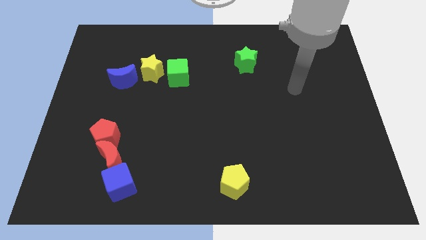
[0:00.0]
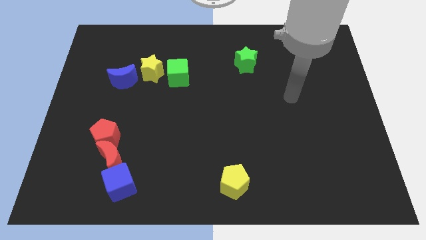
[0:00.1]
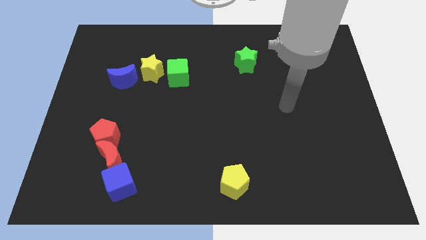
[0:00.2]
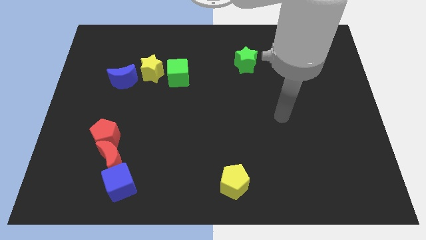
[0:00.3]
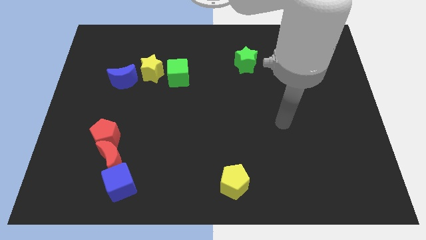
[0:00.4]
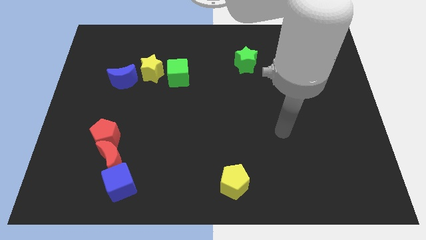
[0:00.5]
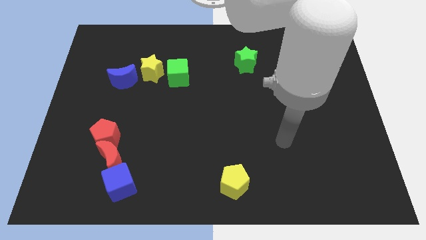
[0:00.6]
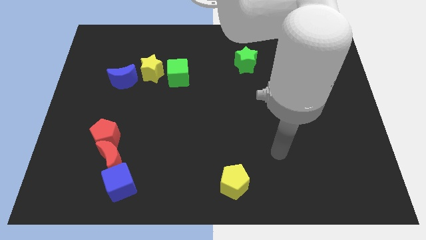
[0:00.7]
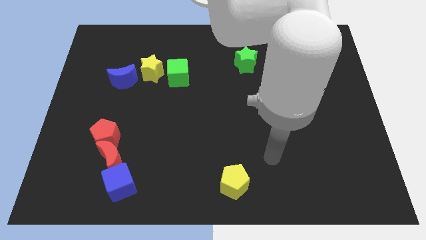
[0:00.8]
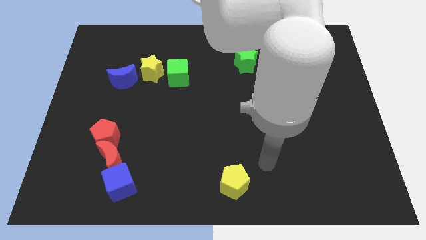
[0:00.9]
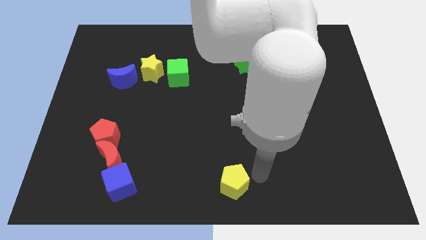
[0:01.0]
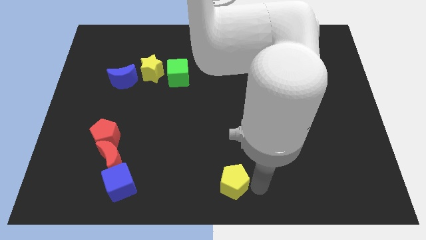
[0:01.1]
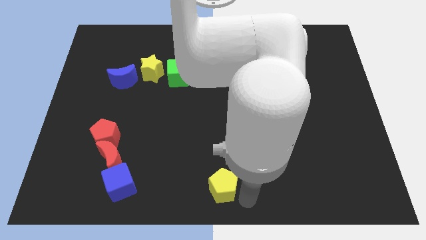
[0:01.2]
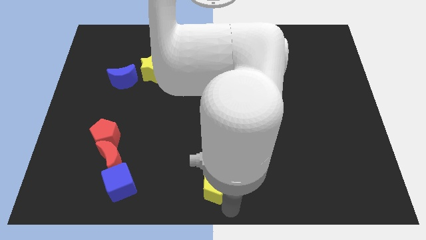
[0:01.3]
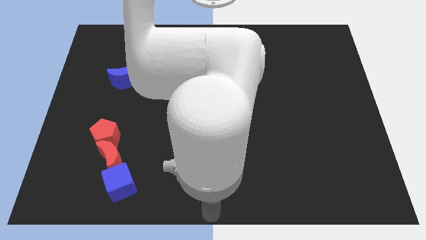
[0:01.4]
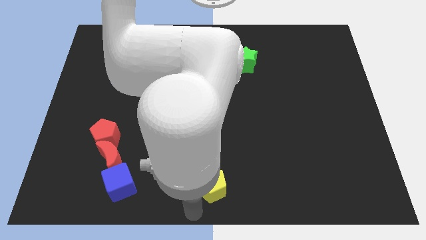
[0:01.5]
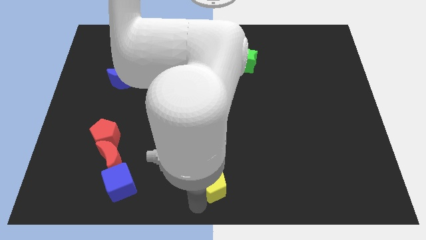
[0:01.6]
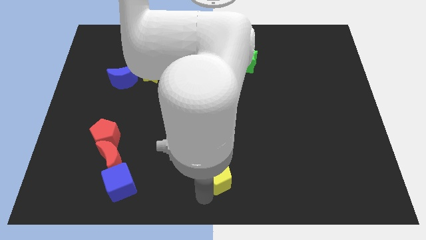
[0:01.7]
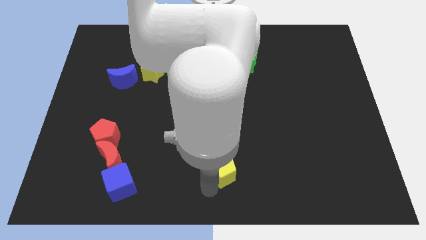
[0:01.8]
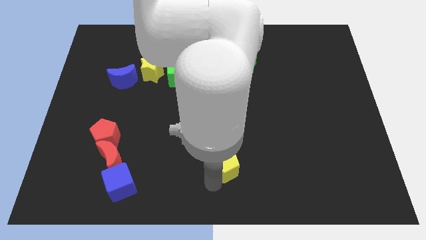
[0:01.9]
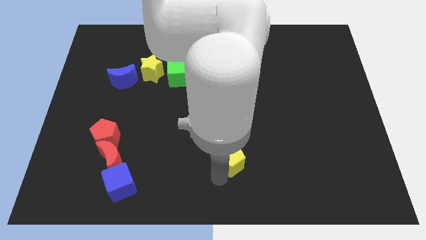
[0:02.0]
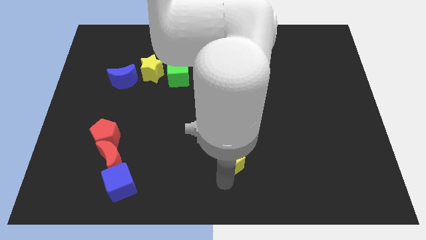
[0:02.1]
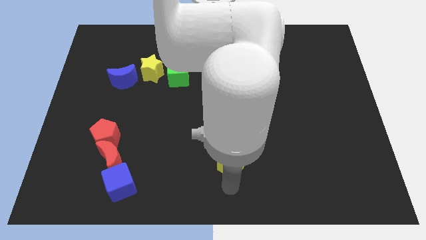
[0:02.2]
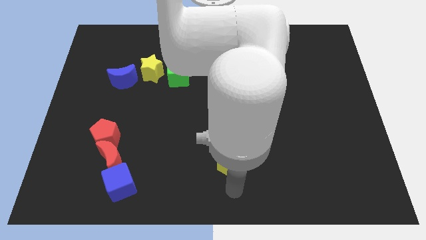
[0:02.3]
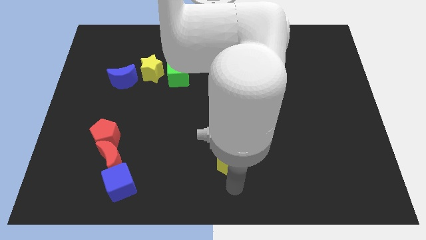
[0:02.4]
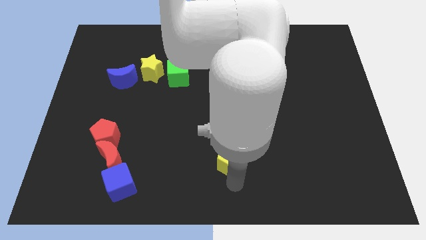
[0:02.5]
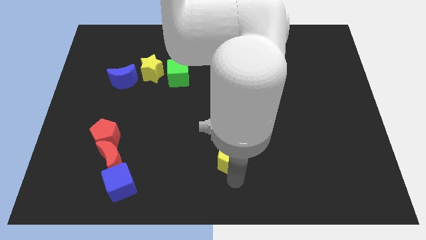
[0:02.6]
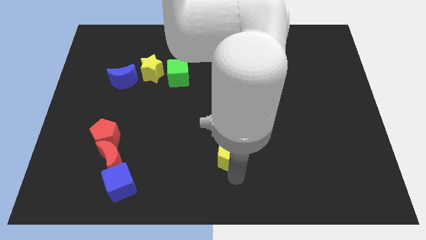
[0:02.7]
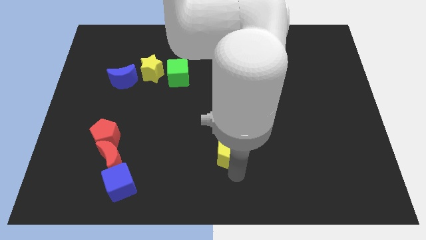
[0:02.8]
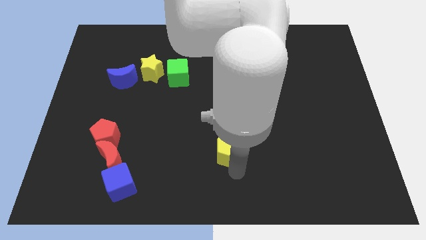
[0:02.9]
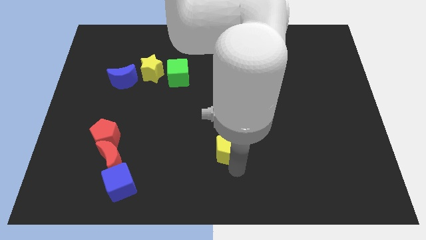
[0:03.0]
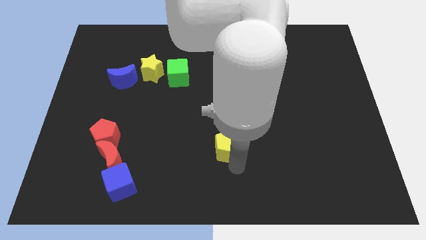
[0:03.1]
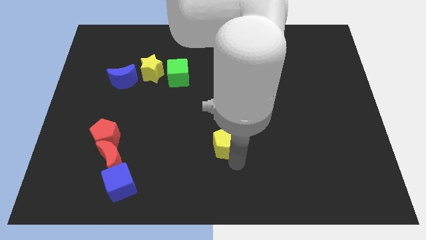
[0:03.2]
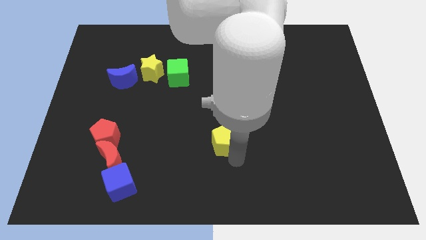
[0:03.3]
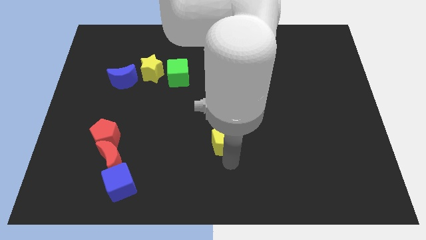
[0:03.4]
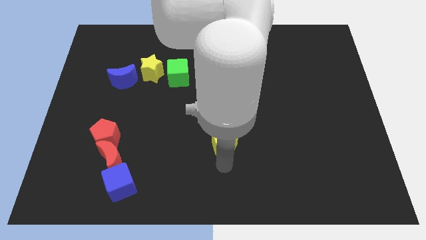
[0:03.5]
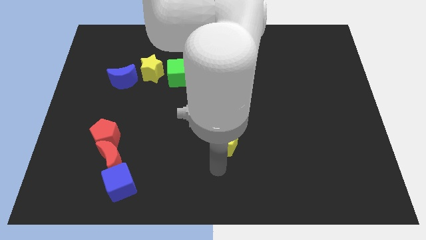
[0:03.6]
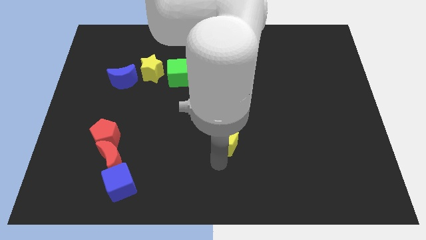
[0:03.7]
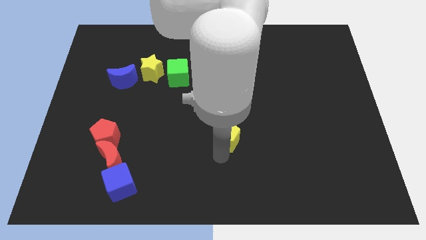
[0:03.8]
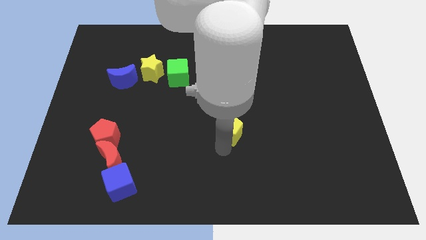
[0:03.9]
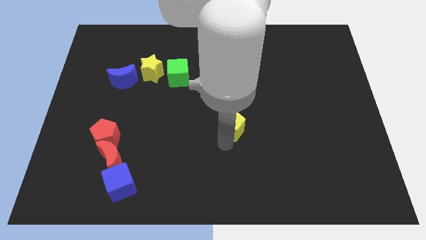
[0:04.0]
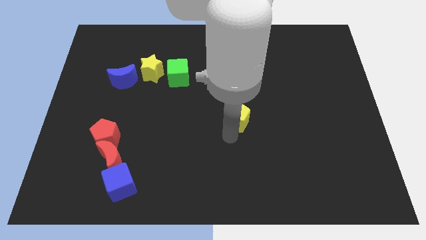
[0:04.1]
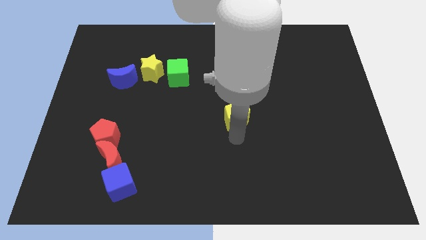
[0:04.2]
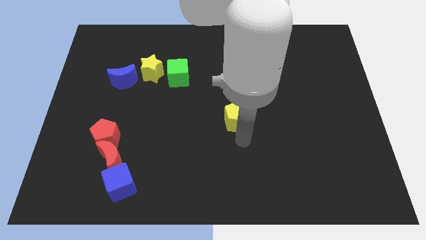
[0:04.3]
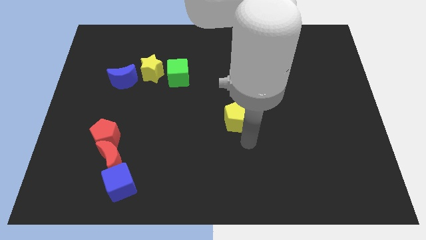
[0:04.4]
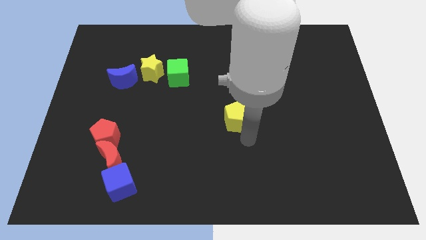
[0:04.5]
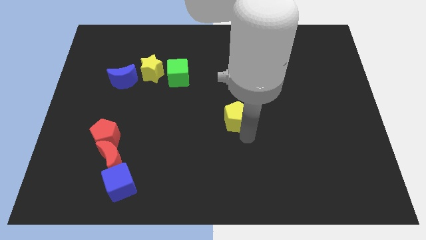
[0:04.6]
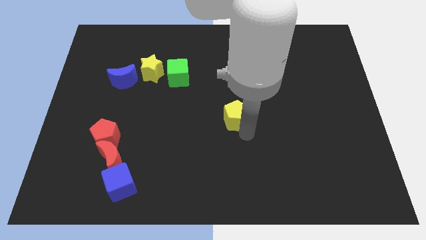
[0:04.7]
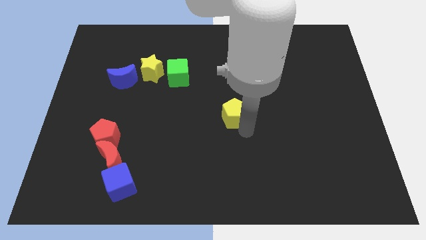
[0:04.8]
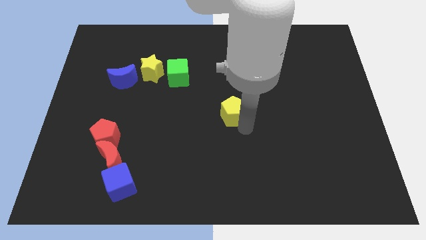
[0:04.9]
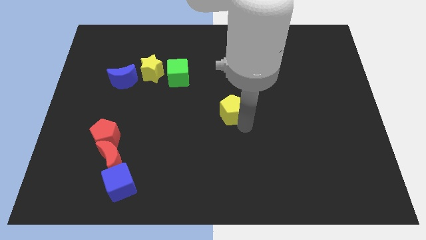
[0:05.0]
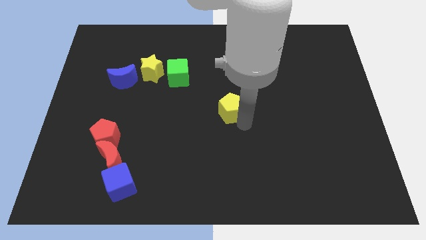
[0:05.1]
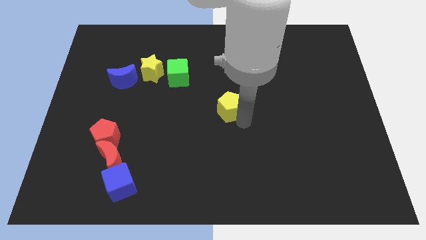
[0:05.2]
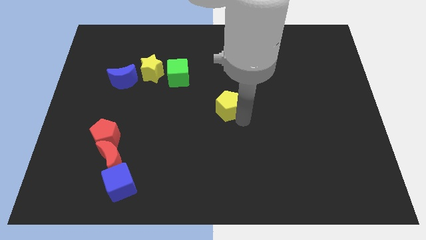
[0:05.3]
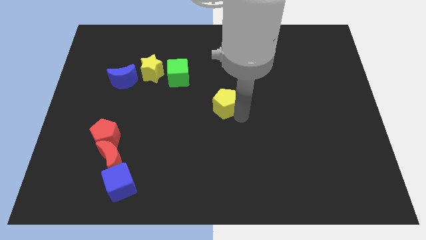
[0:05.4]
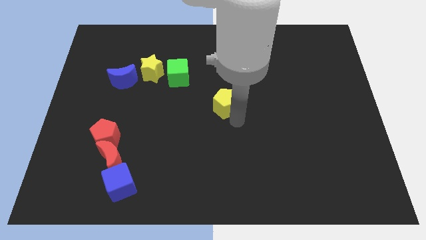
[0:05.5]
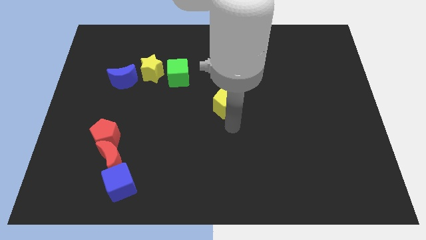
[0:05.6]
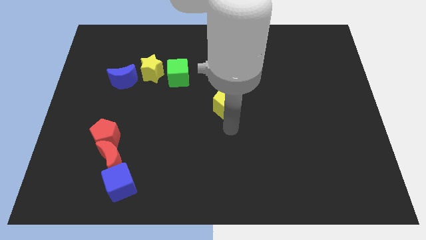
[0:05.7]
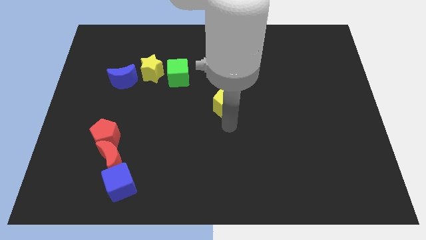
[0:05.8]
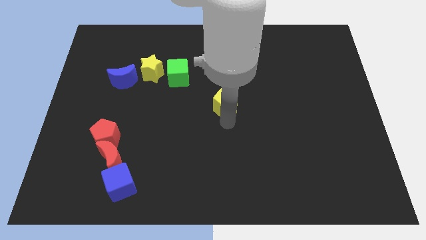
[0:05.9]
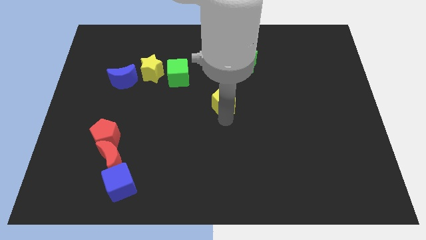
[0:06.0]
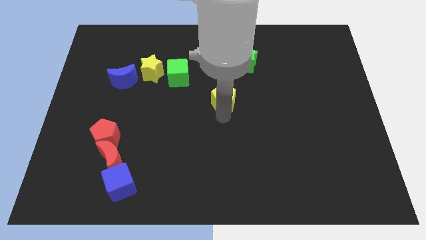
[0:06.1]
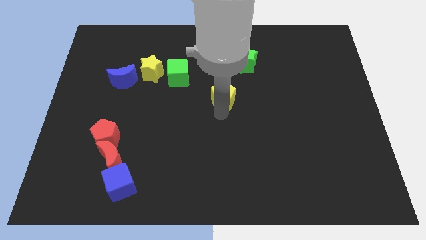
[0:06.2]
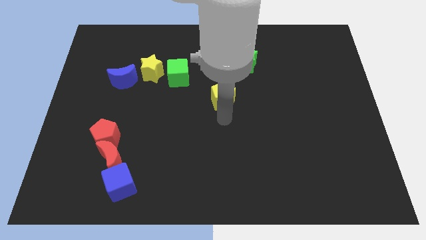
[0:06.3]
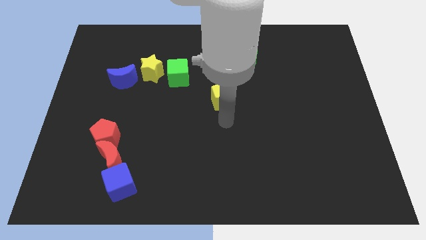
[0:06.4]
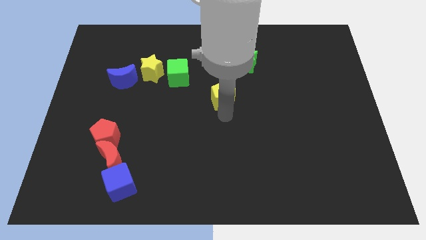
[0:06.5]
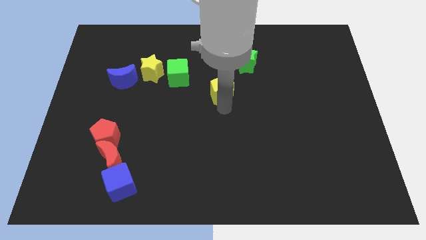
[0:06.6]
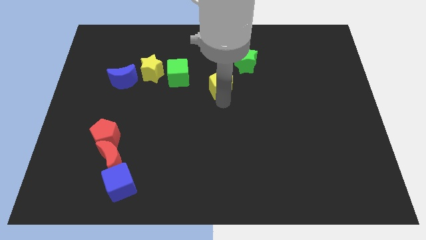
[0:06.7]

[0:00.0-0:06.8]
push the yellow pentagon to the right of the green cube

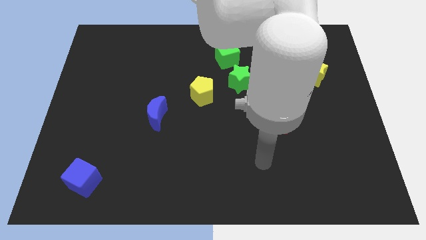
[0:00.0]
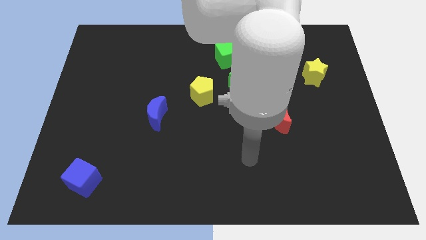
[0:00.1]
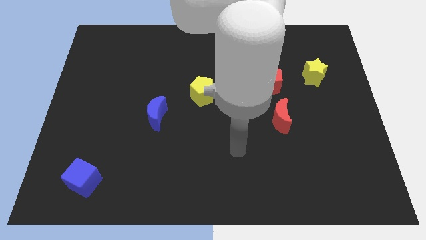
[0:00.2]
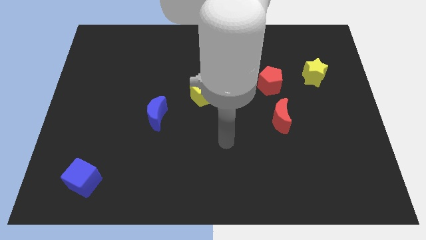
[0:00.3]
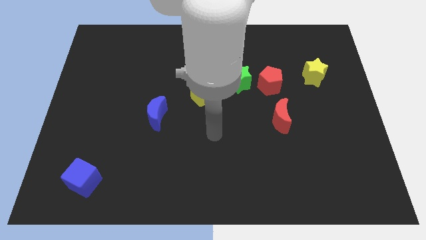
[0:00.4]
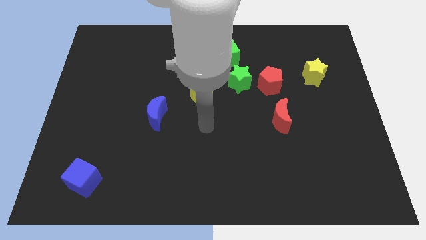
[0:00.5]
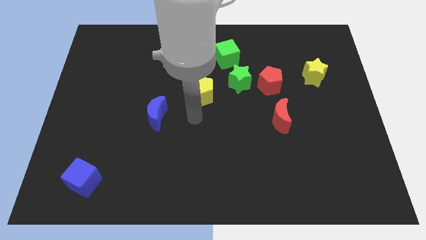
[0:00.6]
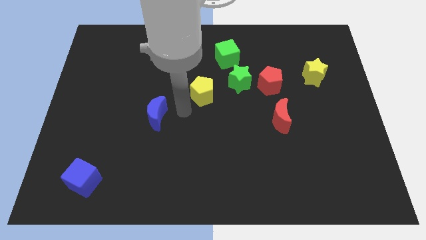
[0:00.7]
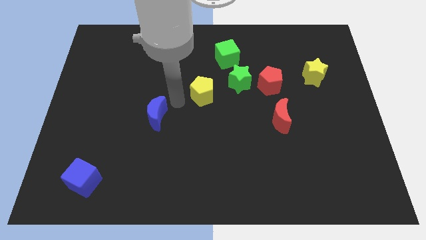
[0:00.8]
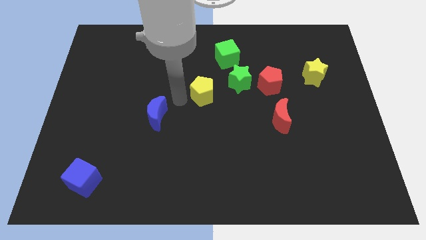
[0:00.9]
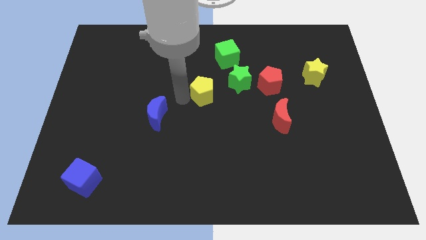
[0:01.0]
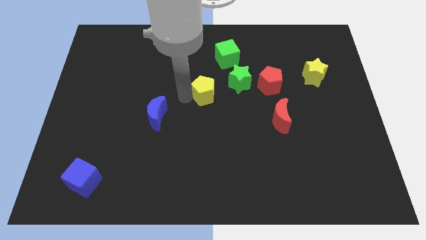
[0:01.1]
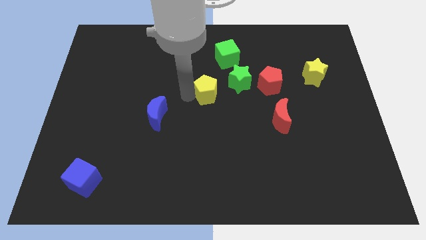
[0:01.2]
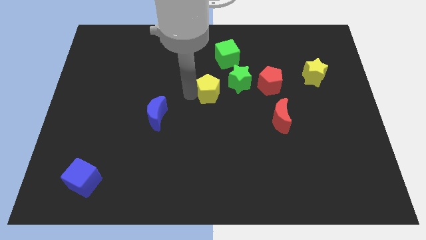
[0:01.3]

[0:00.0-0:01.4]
move the yellow pentagon below the green cube

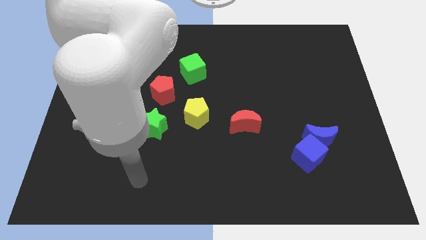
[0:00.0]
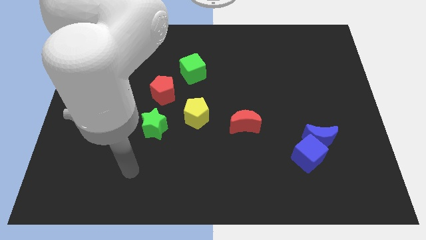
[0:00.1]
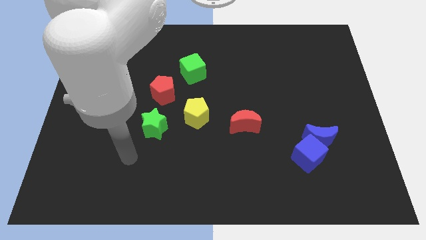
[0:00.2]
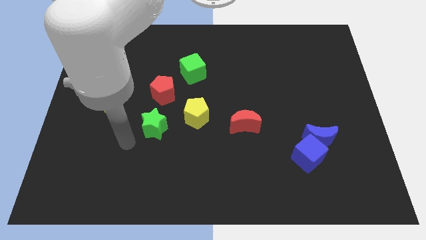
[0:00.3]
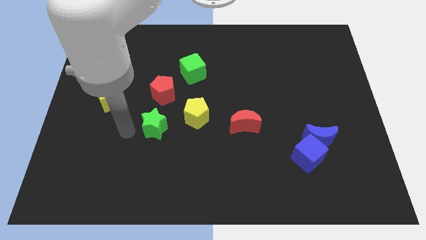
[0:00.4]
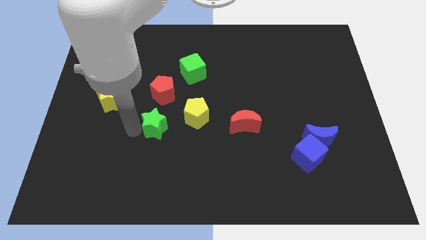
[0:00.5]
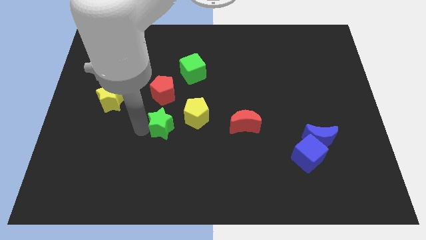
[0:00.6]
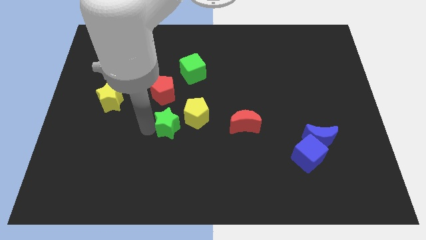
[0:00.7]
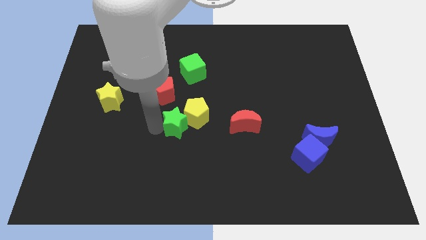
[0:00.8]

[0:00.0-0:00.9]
push the green star just left of the red moon
